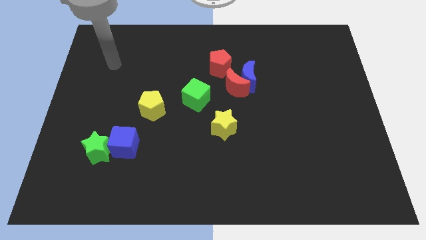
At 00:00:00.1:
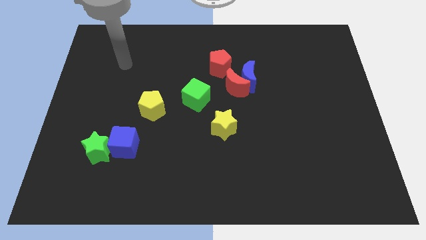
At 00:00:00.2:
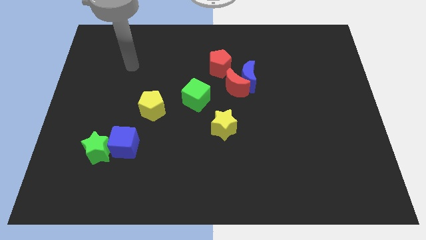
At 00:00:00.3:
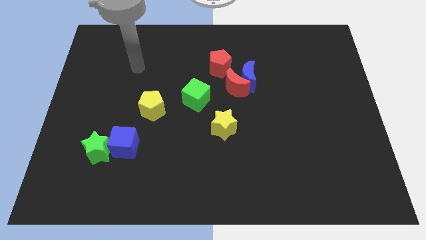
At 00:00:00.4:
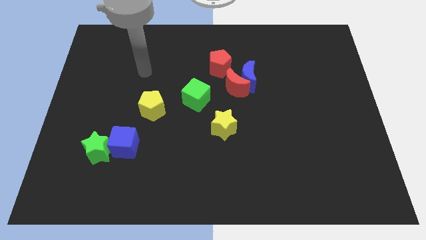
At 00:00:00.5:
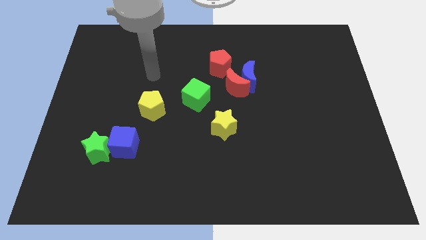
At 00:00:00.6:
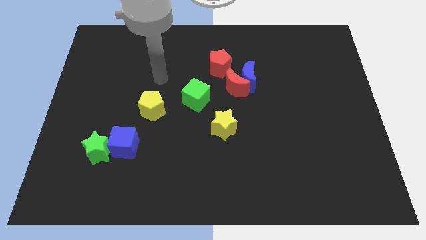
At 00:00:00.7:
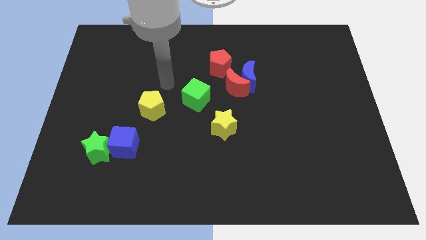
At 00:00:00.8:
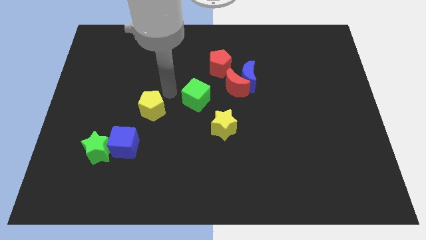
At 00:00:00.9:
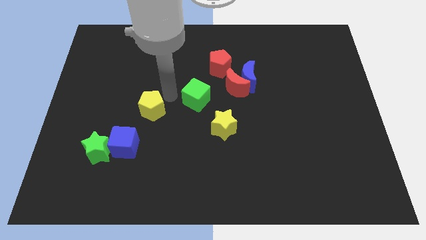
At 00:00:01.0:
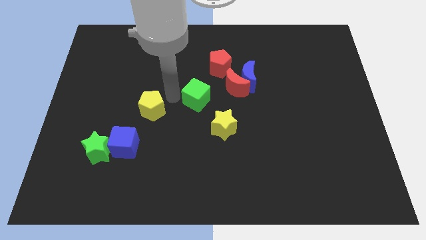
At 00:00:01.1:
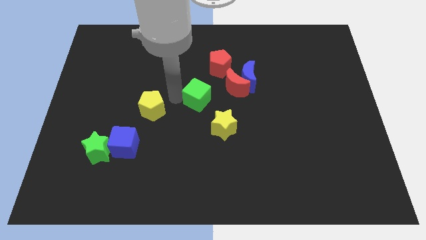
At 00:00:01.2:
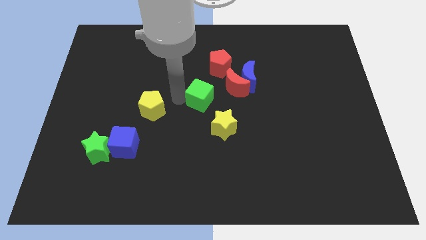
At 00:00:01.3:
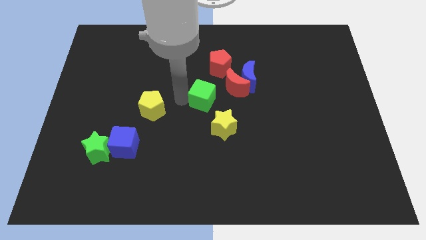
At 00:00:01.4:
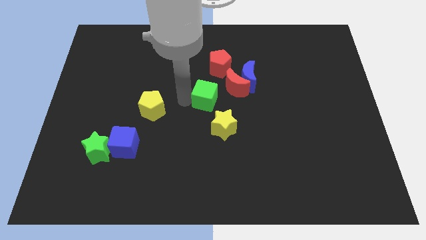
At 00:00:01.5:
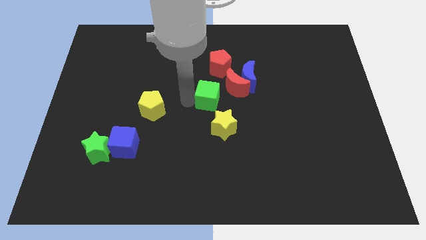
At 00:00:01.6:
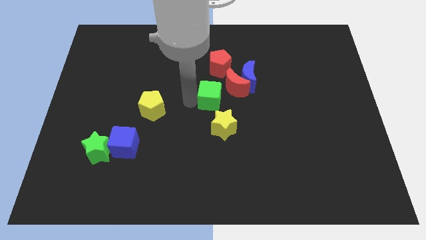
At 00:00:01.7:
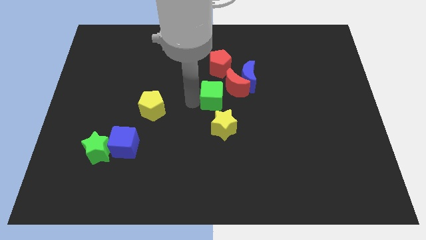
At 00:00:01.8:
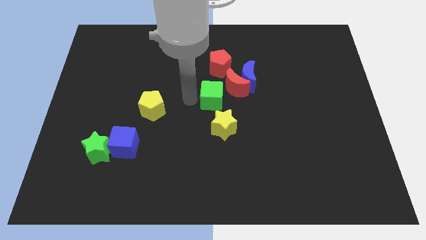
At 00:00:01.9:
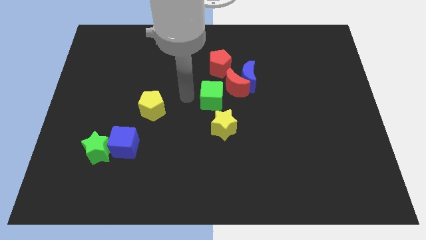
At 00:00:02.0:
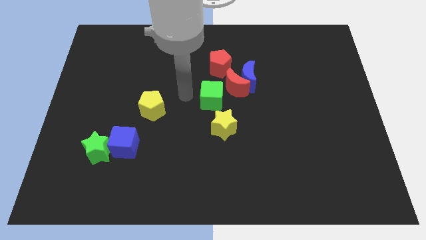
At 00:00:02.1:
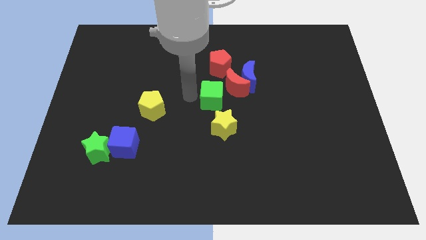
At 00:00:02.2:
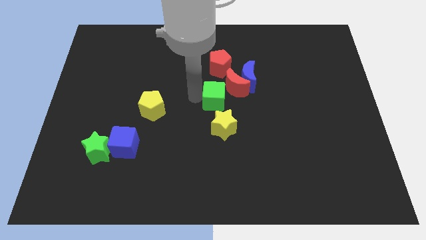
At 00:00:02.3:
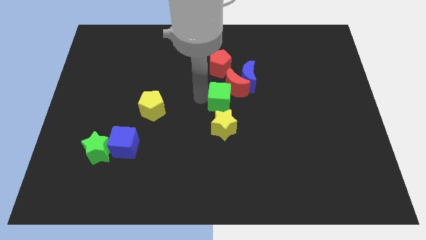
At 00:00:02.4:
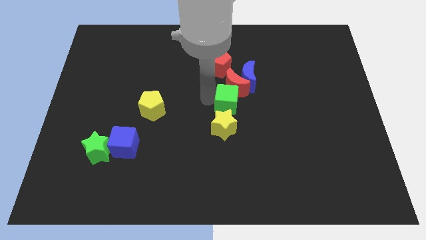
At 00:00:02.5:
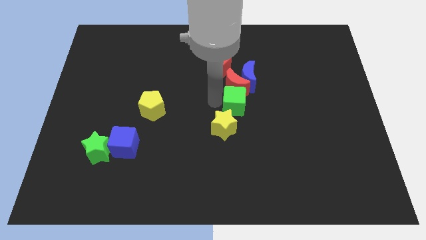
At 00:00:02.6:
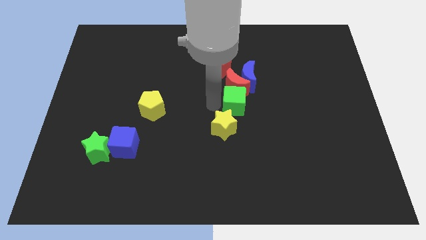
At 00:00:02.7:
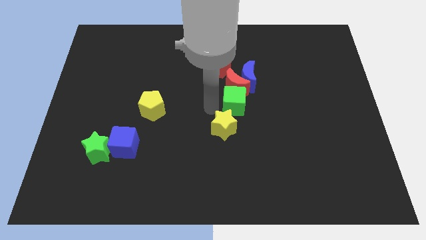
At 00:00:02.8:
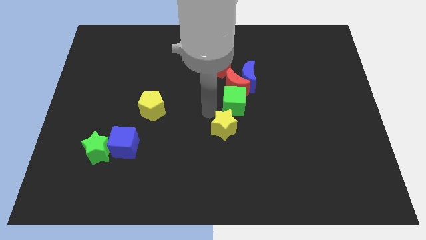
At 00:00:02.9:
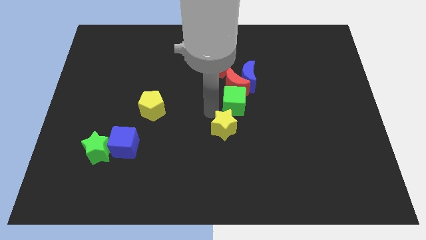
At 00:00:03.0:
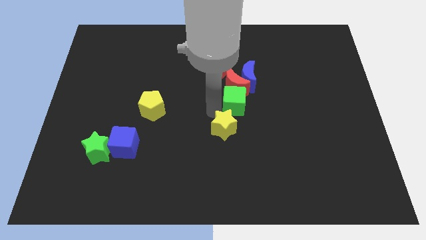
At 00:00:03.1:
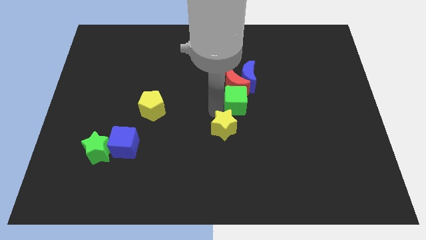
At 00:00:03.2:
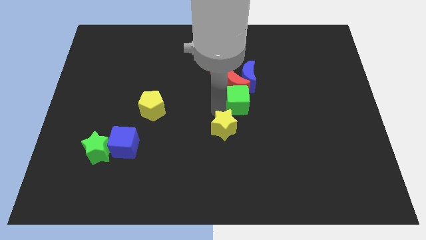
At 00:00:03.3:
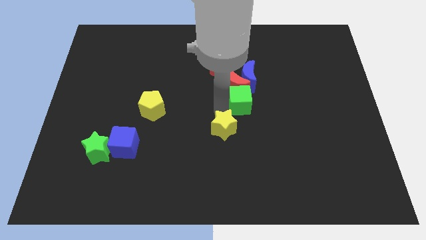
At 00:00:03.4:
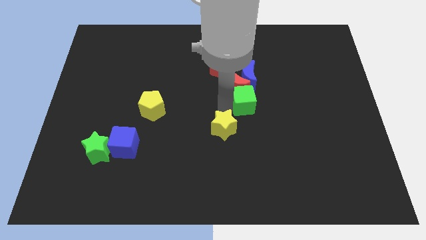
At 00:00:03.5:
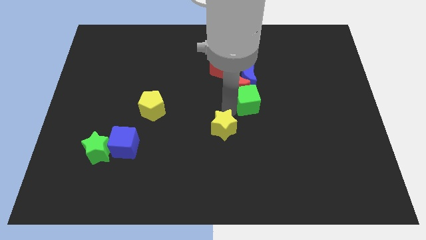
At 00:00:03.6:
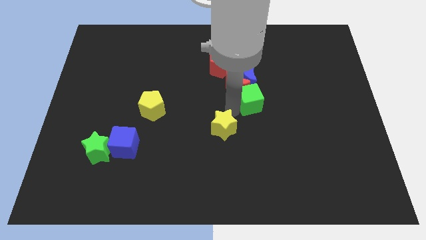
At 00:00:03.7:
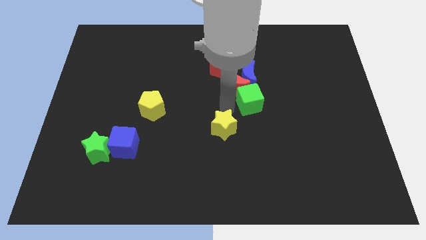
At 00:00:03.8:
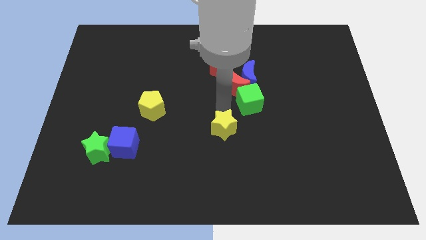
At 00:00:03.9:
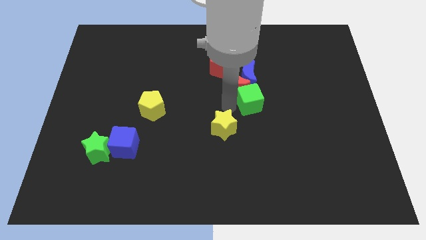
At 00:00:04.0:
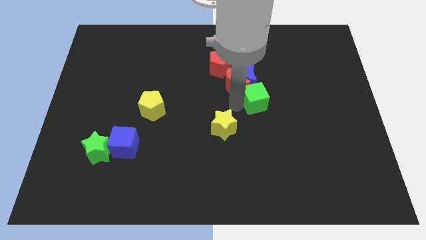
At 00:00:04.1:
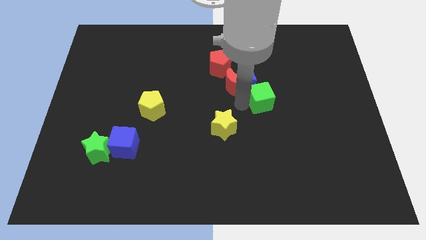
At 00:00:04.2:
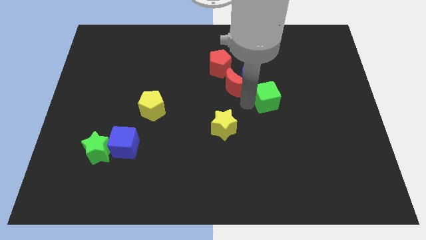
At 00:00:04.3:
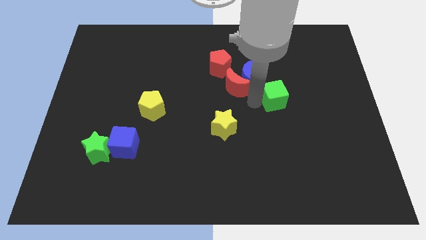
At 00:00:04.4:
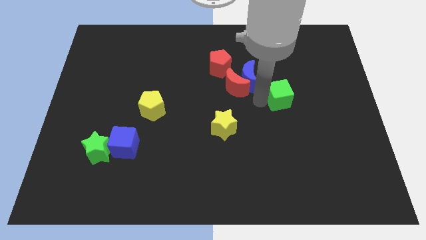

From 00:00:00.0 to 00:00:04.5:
move the green cube to the right

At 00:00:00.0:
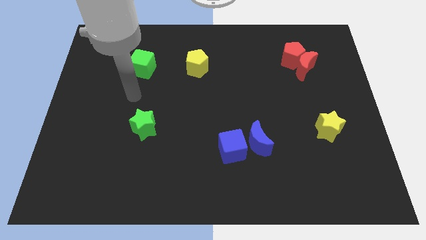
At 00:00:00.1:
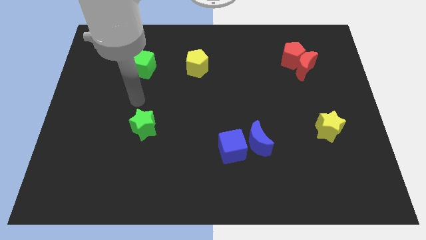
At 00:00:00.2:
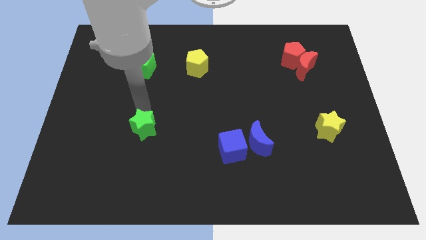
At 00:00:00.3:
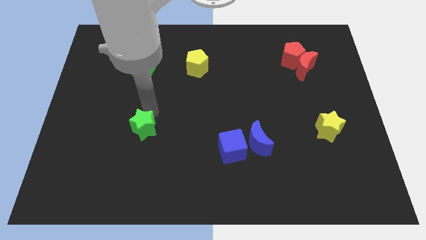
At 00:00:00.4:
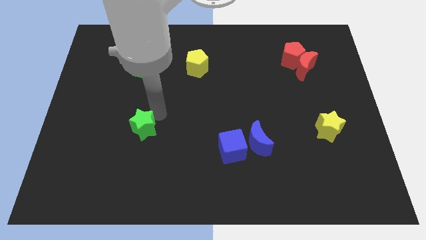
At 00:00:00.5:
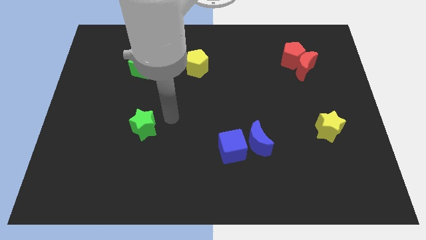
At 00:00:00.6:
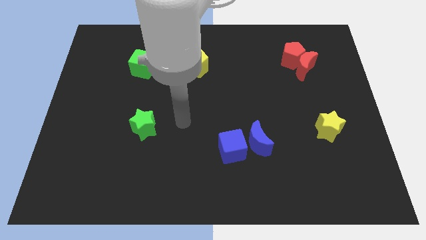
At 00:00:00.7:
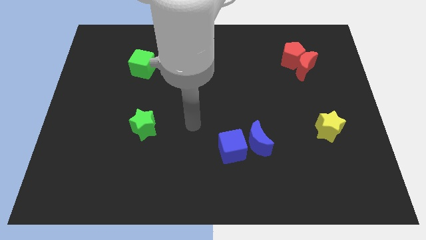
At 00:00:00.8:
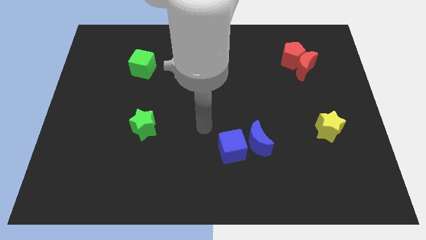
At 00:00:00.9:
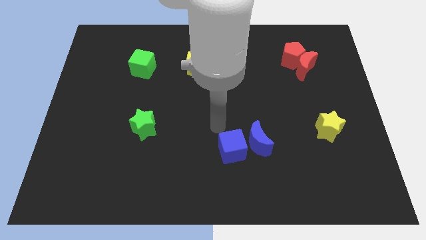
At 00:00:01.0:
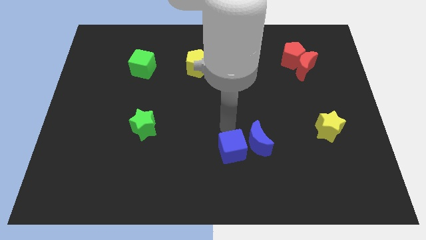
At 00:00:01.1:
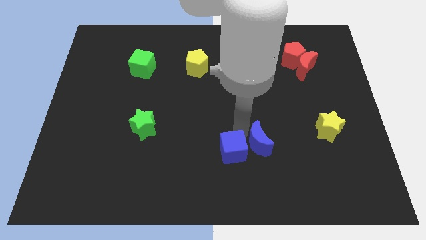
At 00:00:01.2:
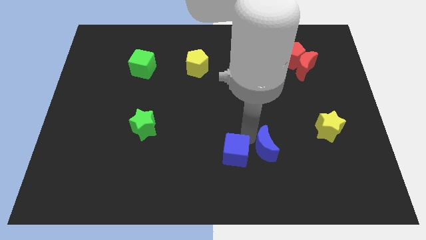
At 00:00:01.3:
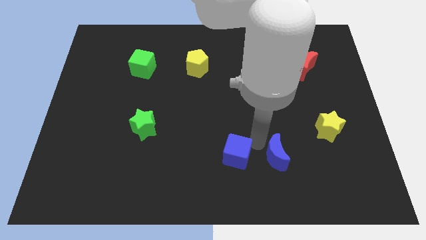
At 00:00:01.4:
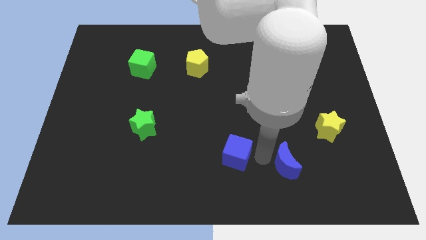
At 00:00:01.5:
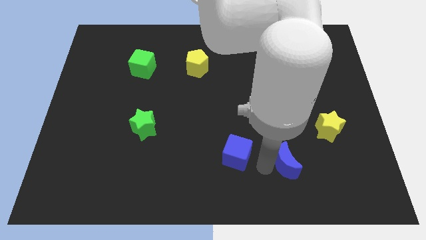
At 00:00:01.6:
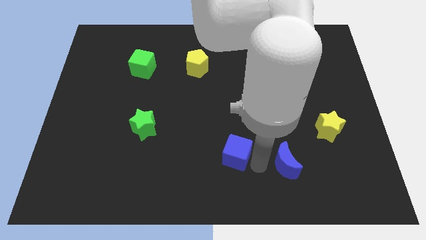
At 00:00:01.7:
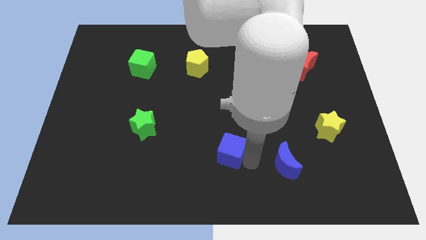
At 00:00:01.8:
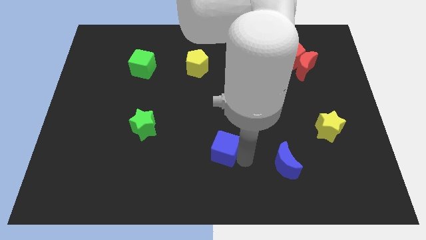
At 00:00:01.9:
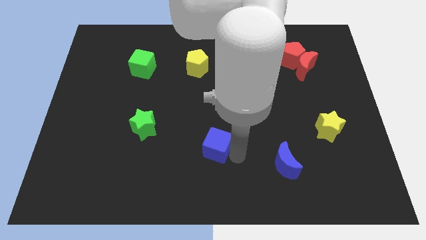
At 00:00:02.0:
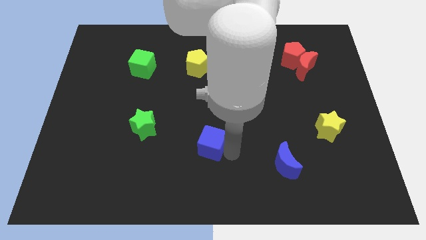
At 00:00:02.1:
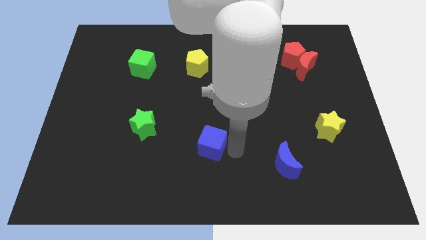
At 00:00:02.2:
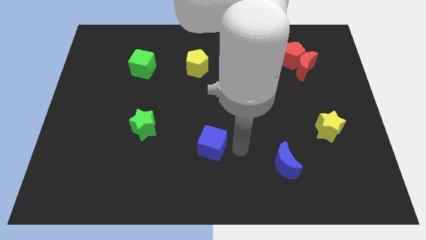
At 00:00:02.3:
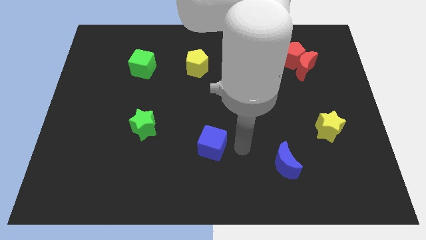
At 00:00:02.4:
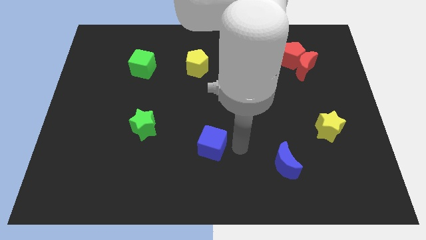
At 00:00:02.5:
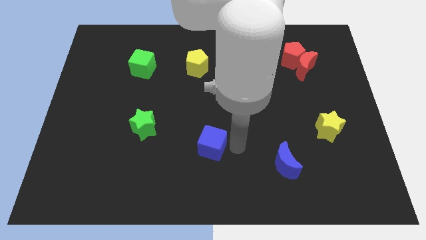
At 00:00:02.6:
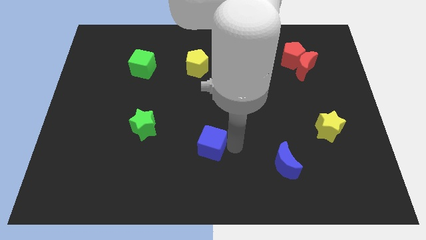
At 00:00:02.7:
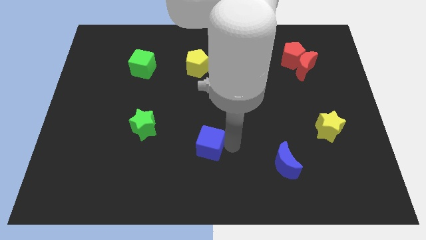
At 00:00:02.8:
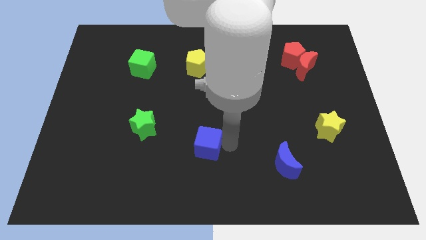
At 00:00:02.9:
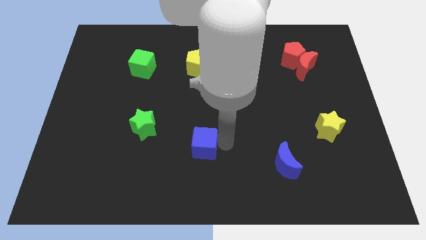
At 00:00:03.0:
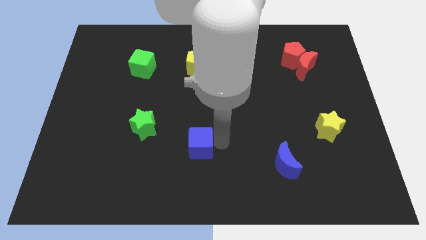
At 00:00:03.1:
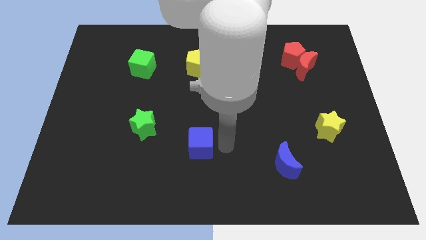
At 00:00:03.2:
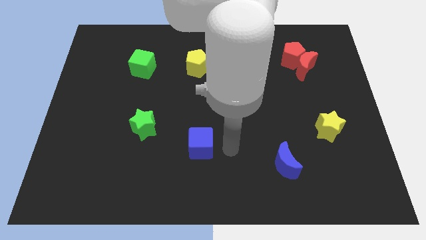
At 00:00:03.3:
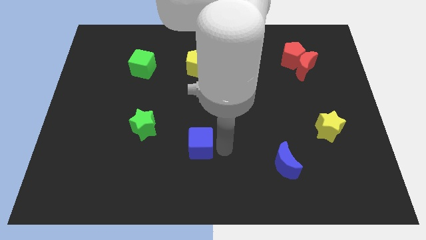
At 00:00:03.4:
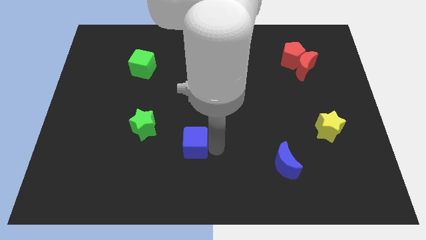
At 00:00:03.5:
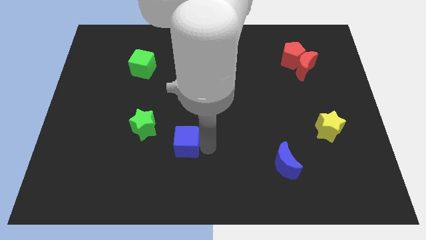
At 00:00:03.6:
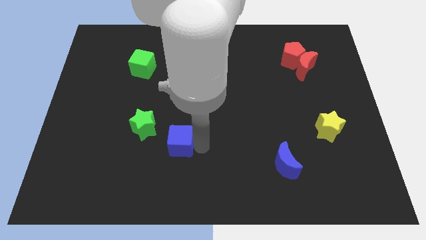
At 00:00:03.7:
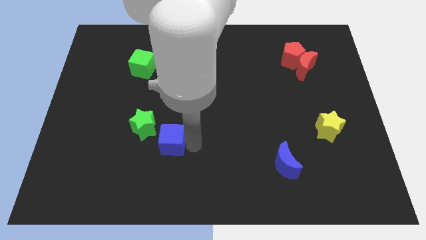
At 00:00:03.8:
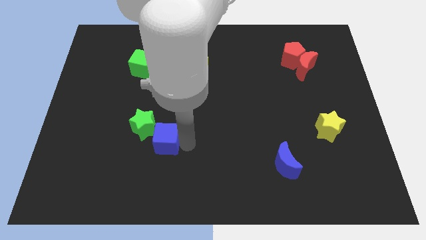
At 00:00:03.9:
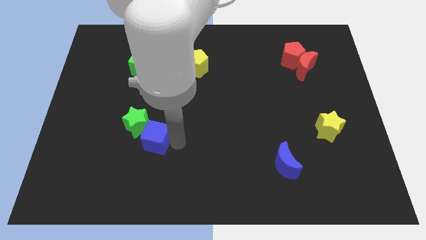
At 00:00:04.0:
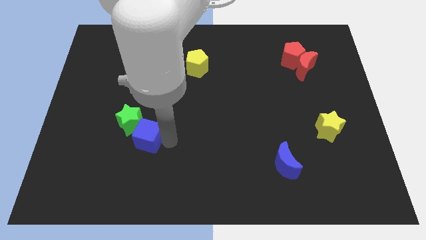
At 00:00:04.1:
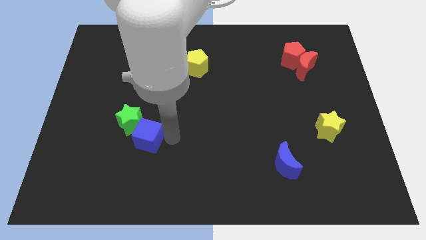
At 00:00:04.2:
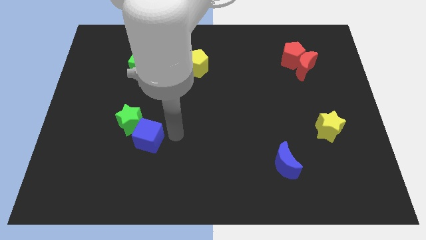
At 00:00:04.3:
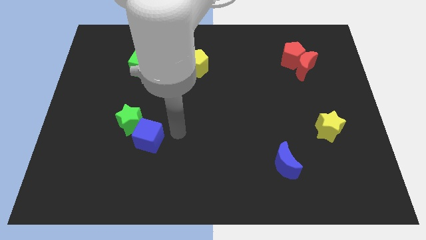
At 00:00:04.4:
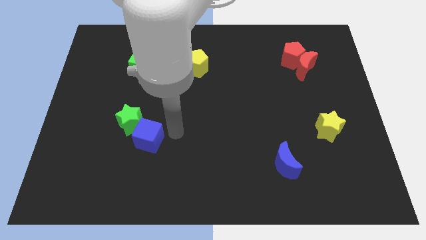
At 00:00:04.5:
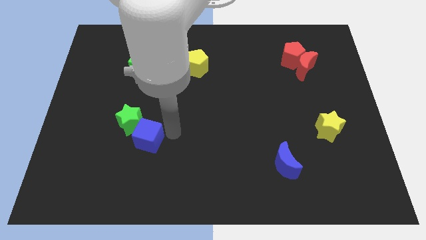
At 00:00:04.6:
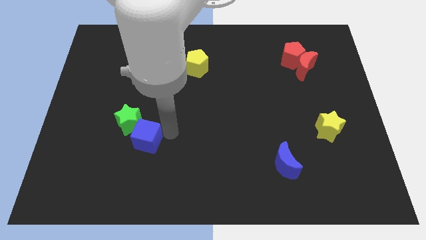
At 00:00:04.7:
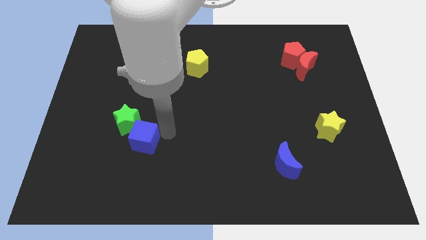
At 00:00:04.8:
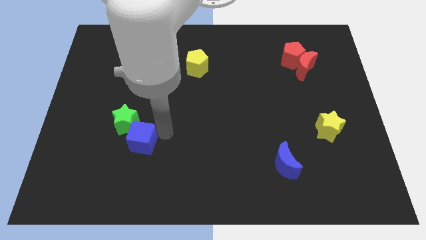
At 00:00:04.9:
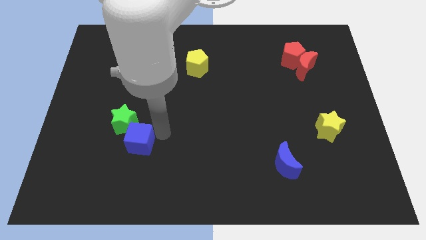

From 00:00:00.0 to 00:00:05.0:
move the blue cube left
